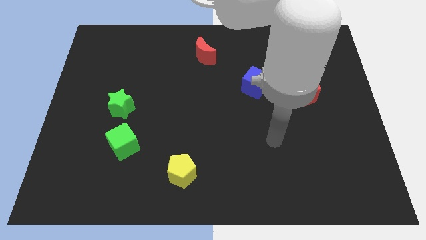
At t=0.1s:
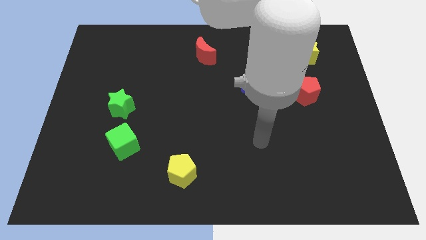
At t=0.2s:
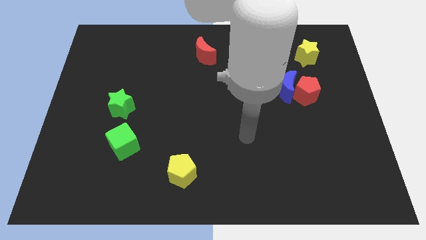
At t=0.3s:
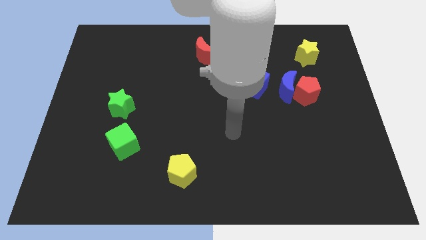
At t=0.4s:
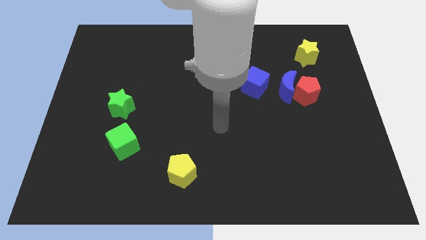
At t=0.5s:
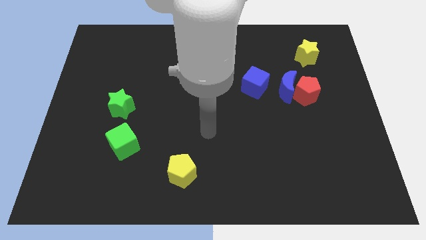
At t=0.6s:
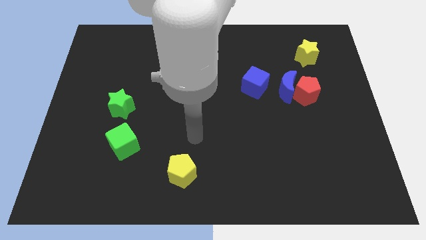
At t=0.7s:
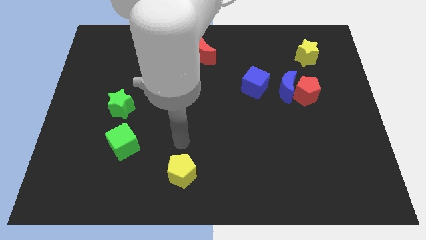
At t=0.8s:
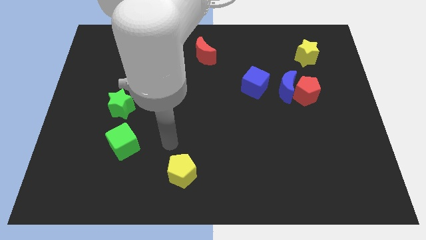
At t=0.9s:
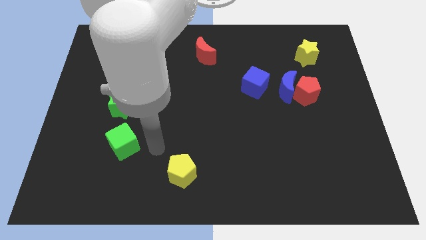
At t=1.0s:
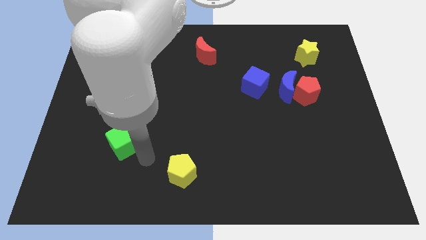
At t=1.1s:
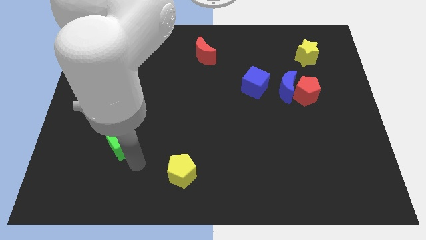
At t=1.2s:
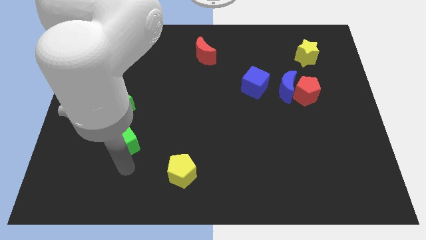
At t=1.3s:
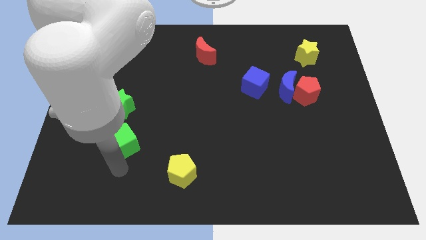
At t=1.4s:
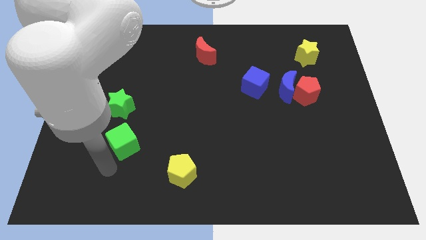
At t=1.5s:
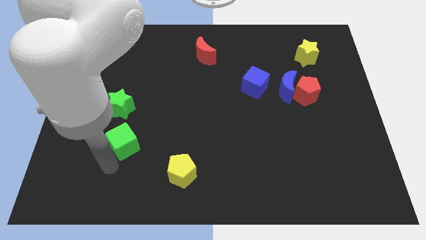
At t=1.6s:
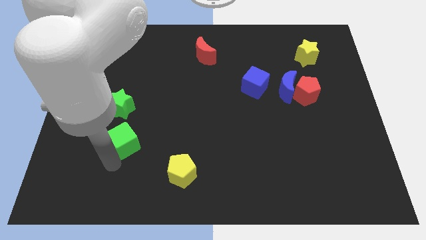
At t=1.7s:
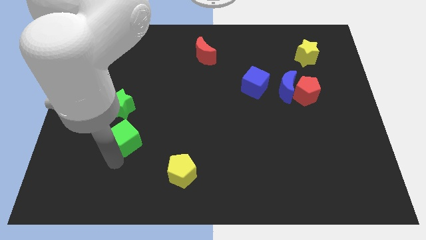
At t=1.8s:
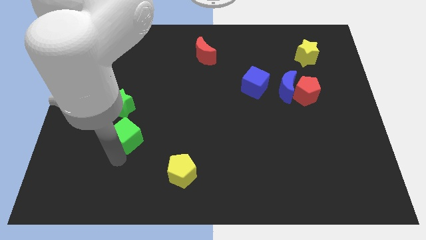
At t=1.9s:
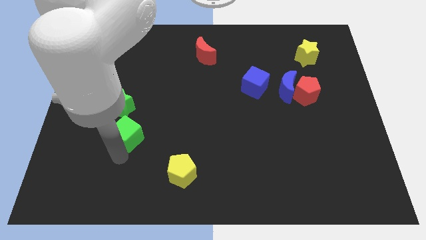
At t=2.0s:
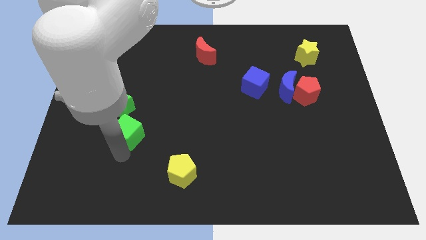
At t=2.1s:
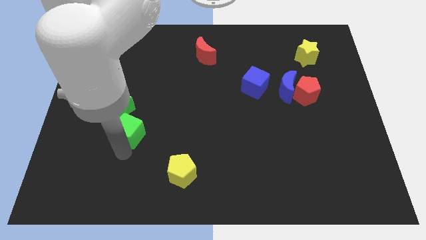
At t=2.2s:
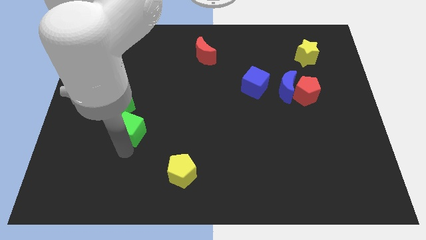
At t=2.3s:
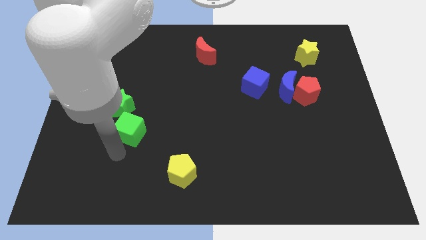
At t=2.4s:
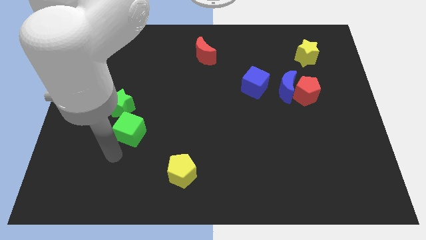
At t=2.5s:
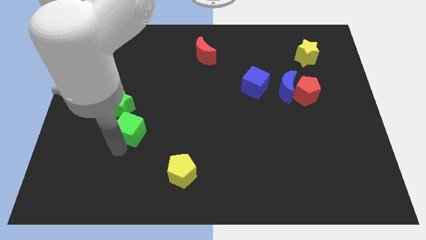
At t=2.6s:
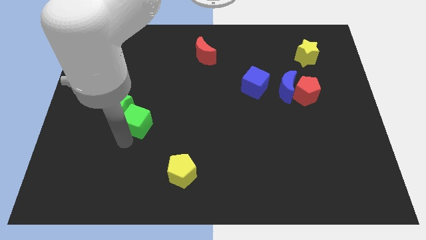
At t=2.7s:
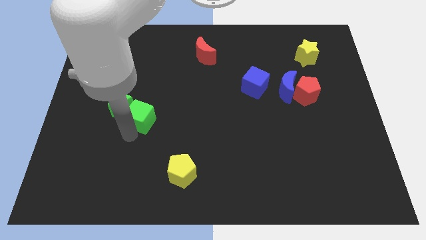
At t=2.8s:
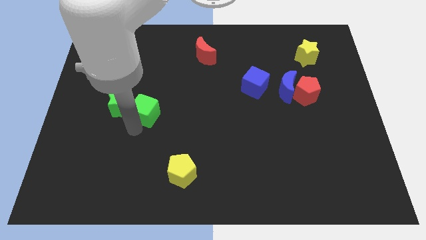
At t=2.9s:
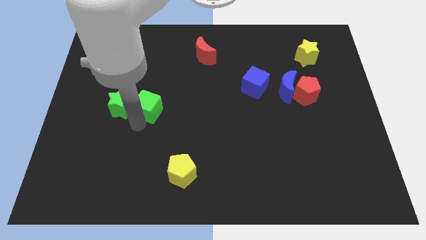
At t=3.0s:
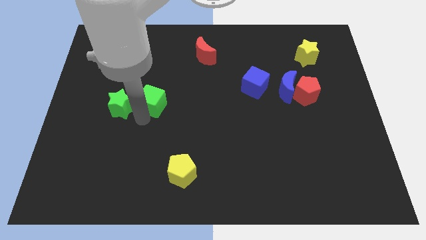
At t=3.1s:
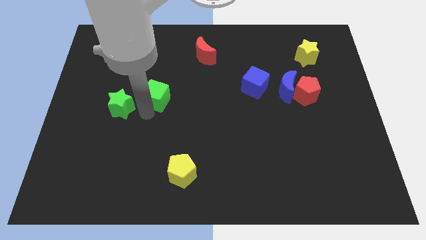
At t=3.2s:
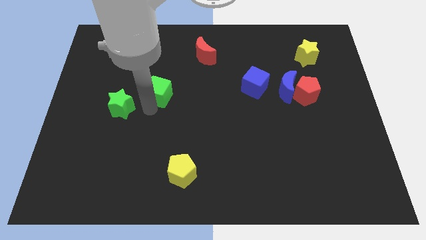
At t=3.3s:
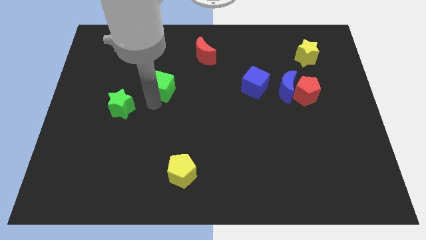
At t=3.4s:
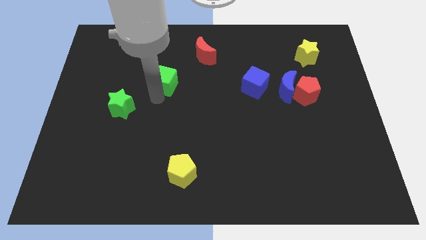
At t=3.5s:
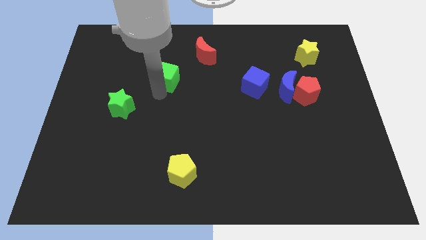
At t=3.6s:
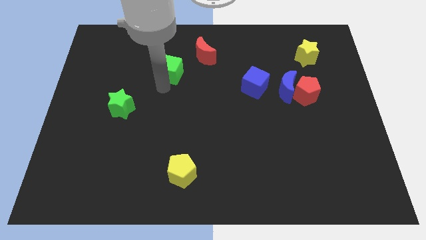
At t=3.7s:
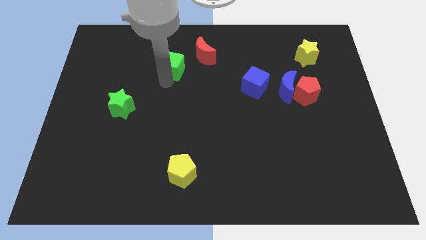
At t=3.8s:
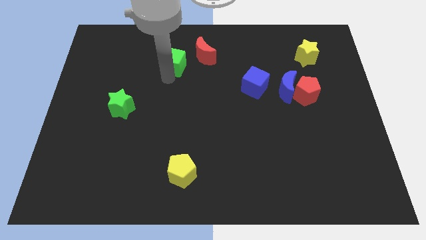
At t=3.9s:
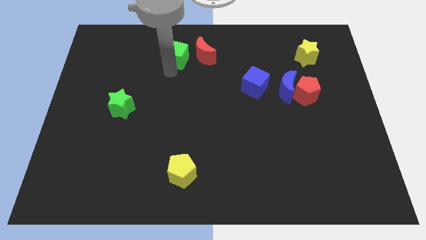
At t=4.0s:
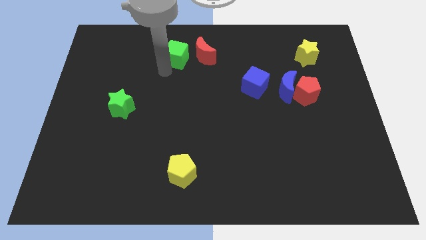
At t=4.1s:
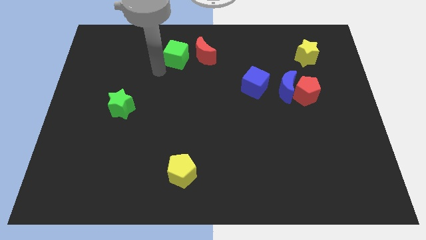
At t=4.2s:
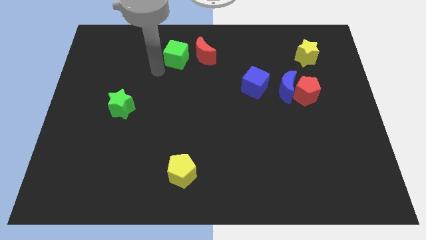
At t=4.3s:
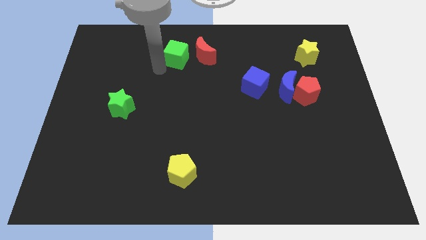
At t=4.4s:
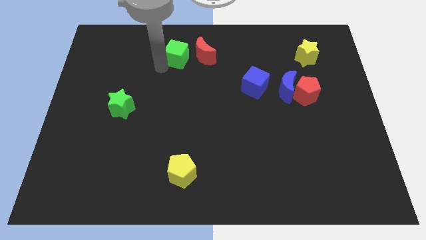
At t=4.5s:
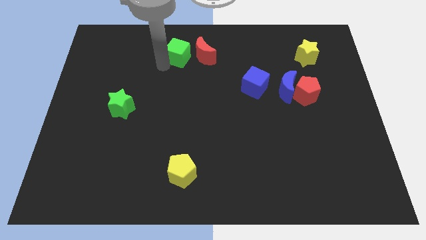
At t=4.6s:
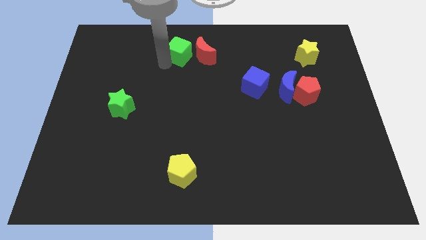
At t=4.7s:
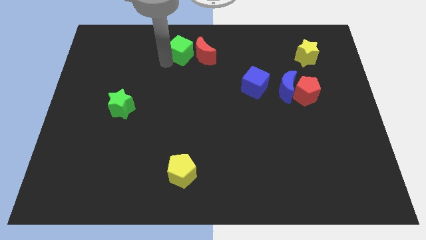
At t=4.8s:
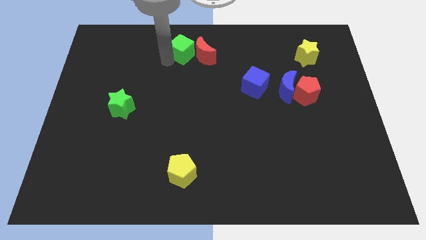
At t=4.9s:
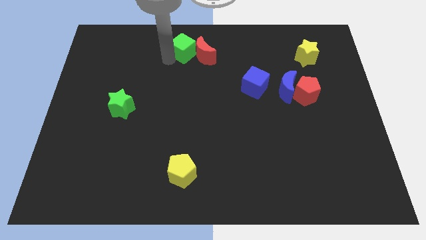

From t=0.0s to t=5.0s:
put the green cube to the top side

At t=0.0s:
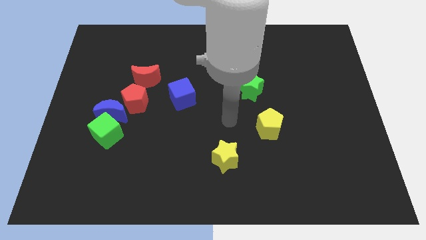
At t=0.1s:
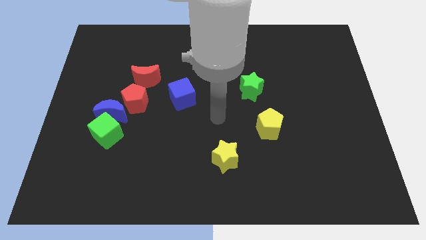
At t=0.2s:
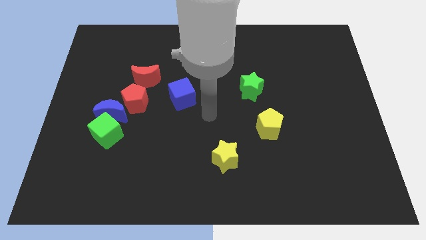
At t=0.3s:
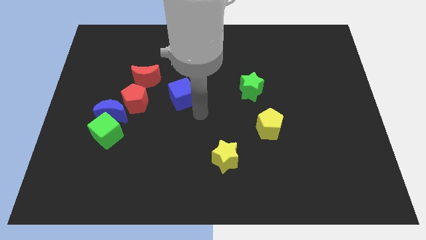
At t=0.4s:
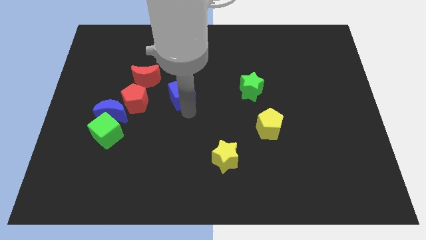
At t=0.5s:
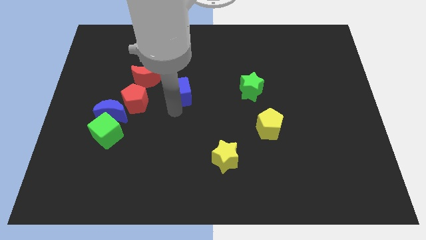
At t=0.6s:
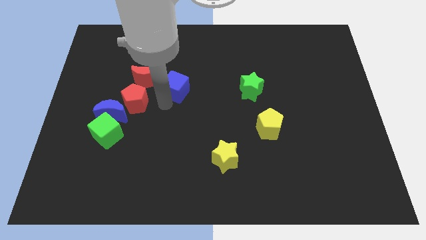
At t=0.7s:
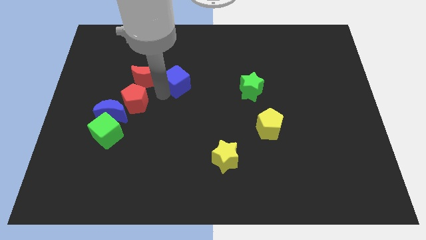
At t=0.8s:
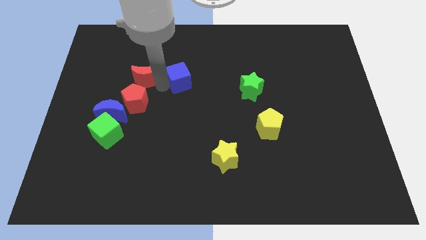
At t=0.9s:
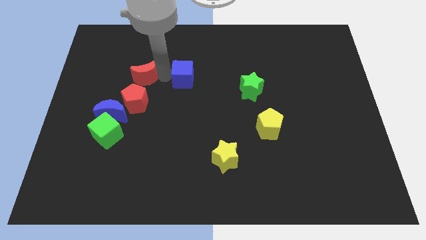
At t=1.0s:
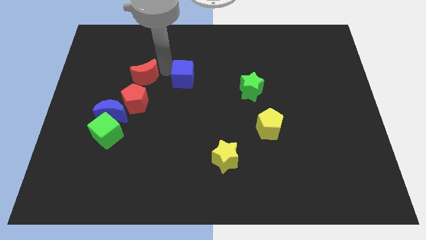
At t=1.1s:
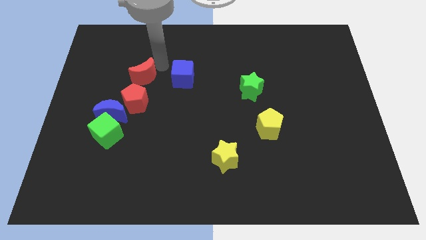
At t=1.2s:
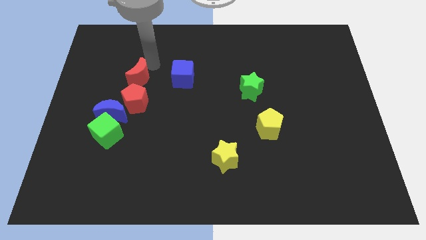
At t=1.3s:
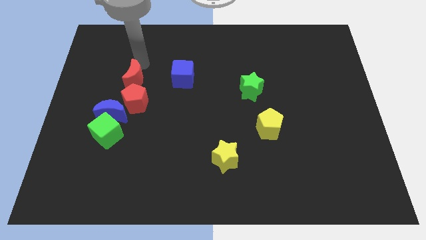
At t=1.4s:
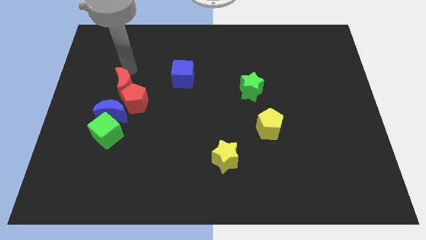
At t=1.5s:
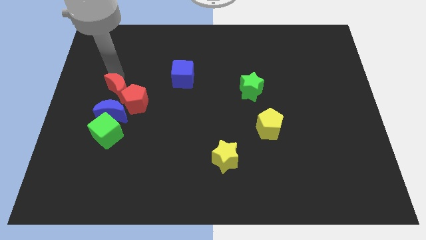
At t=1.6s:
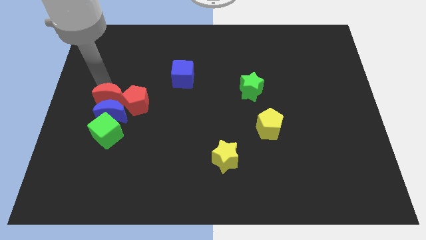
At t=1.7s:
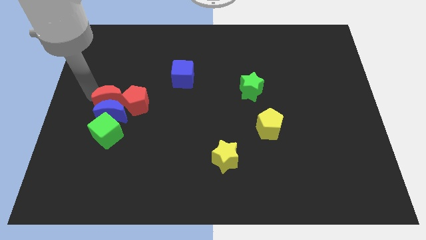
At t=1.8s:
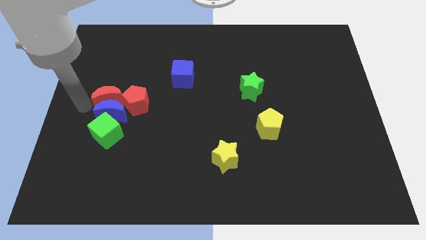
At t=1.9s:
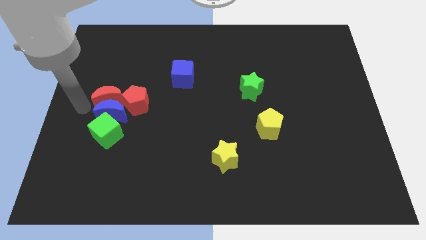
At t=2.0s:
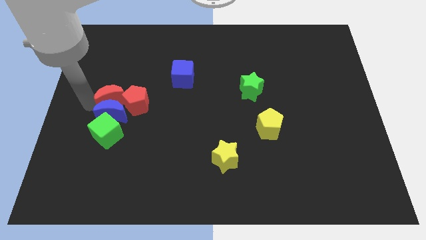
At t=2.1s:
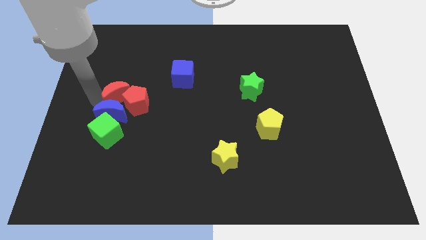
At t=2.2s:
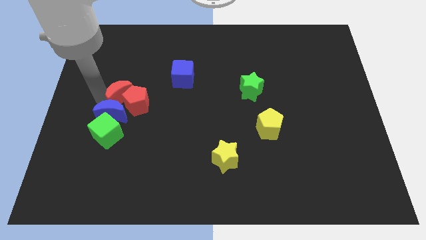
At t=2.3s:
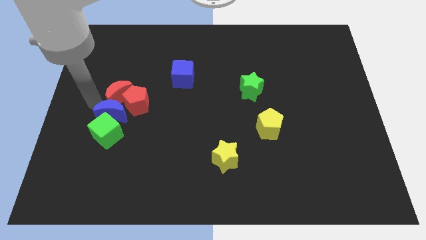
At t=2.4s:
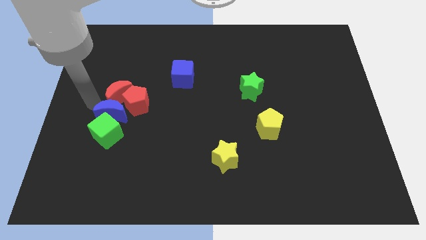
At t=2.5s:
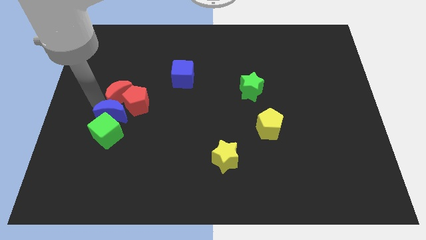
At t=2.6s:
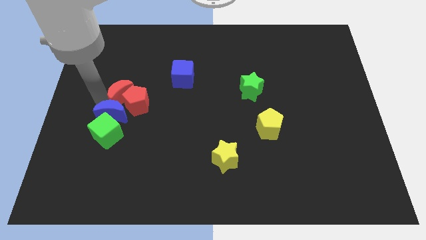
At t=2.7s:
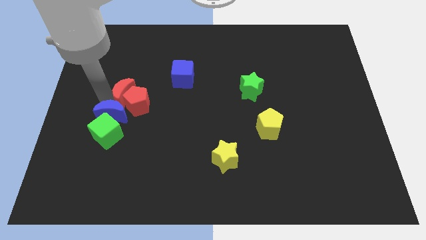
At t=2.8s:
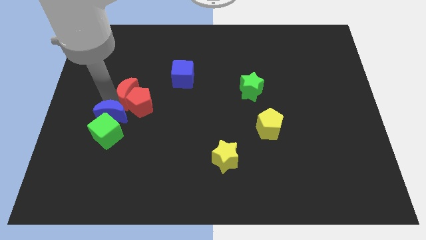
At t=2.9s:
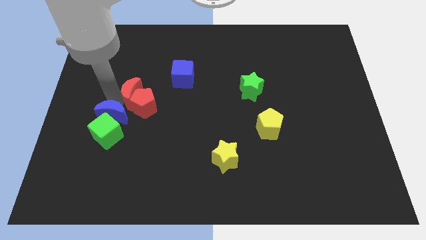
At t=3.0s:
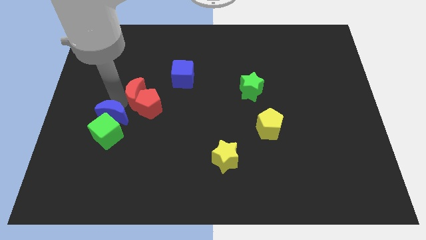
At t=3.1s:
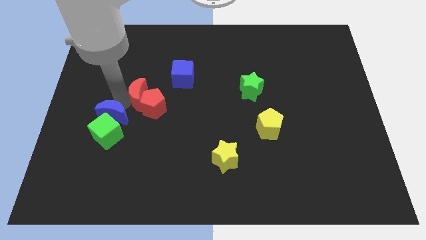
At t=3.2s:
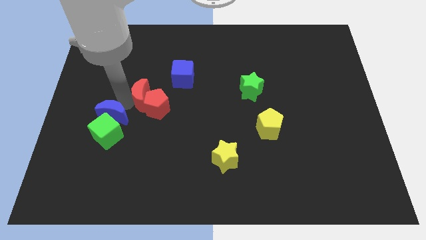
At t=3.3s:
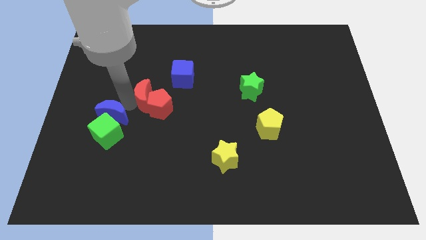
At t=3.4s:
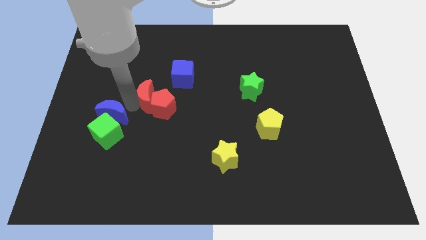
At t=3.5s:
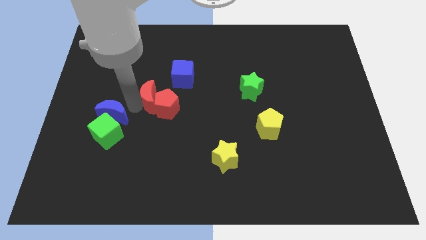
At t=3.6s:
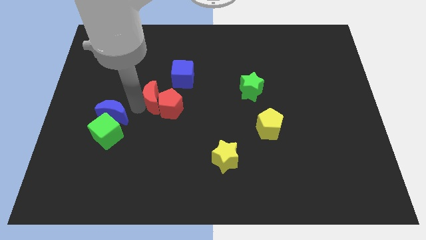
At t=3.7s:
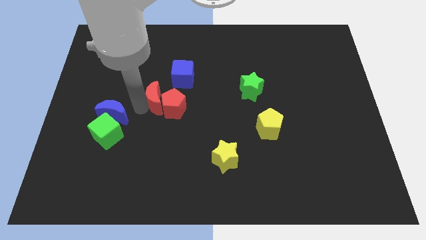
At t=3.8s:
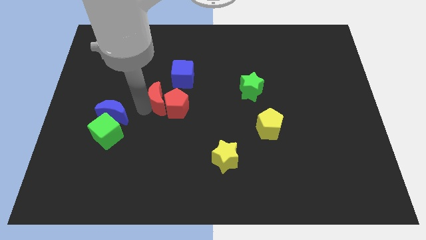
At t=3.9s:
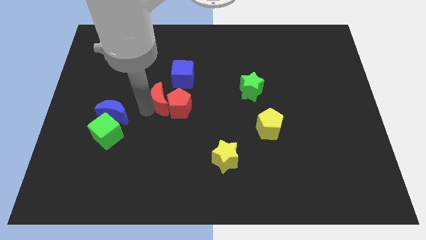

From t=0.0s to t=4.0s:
slide the red moon to the center
